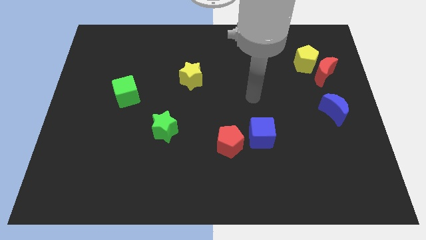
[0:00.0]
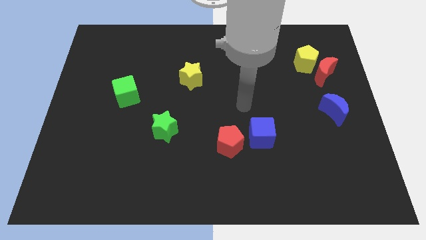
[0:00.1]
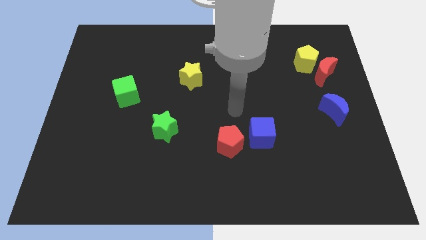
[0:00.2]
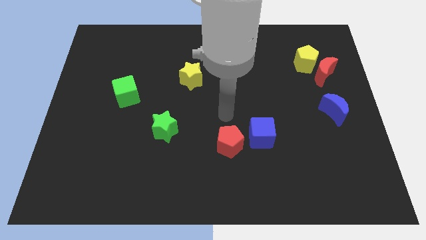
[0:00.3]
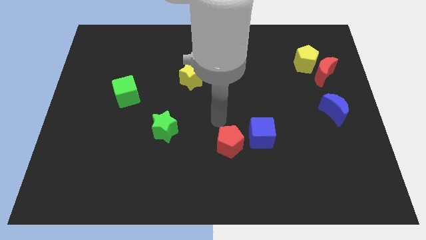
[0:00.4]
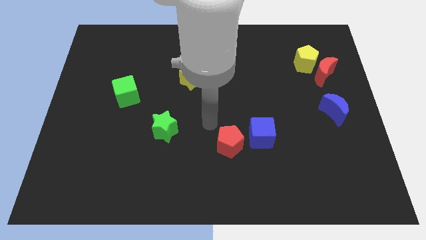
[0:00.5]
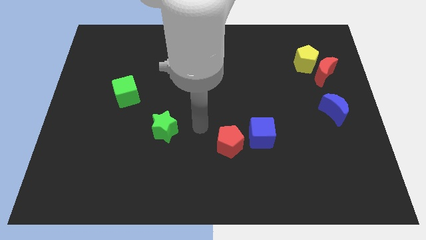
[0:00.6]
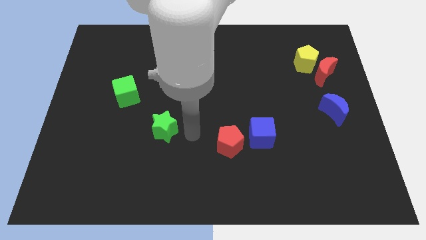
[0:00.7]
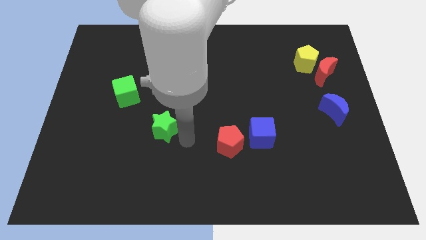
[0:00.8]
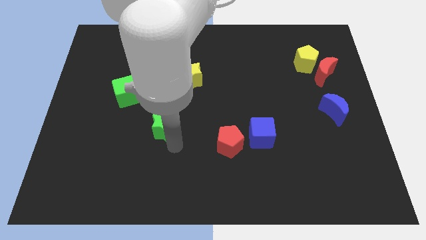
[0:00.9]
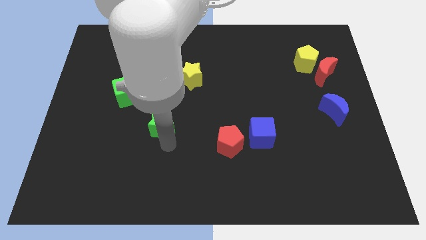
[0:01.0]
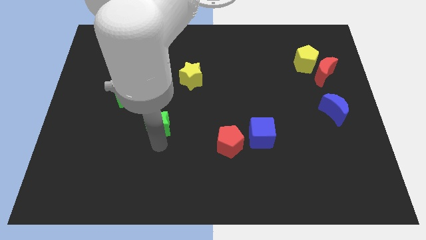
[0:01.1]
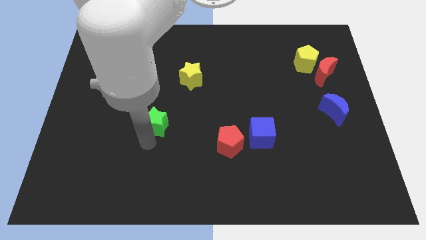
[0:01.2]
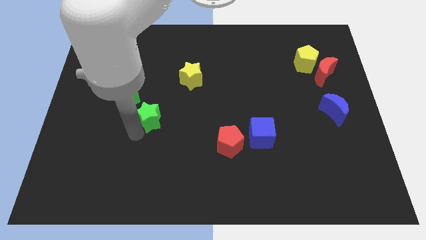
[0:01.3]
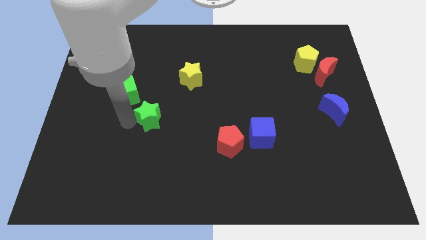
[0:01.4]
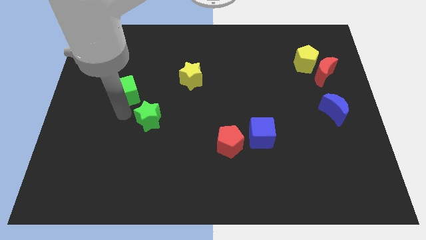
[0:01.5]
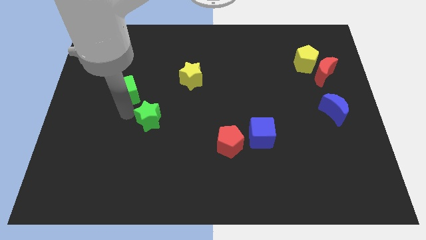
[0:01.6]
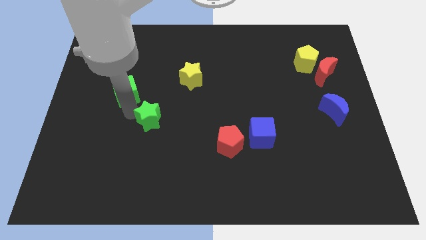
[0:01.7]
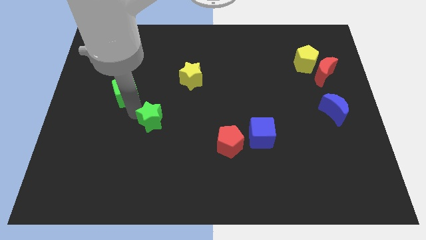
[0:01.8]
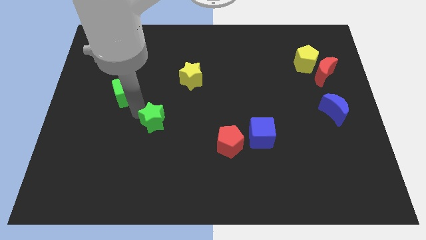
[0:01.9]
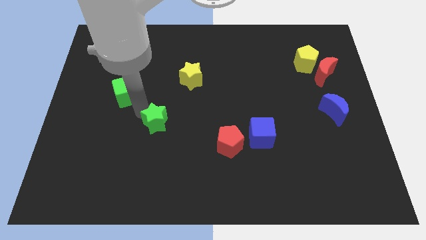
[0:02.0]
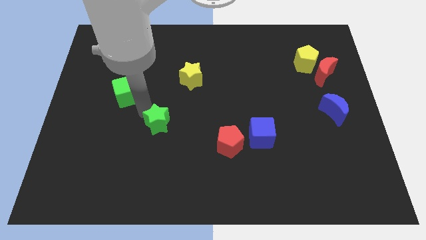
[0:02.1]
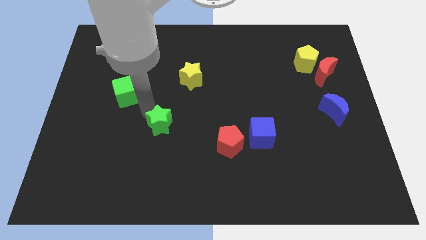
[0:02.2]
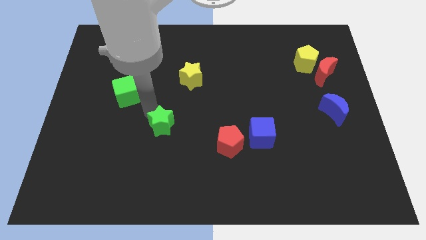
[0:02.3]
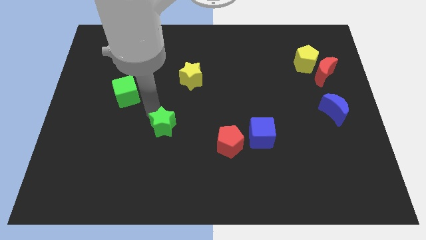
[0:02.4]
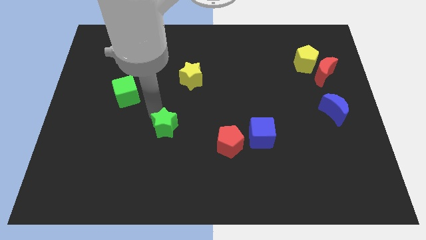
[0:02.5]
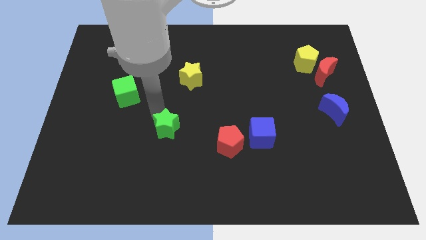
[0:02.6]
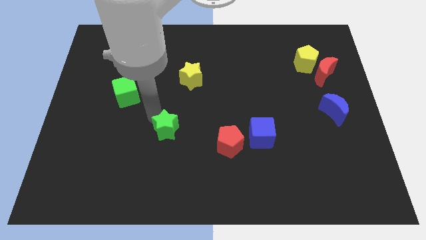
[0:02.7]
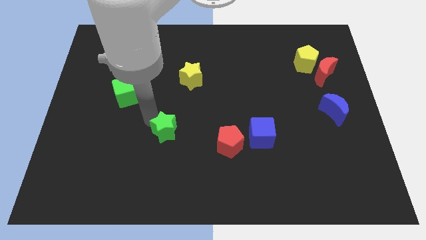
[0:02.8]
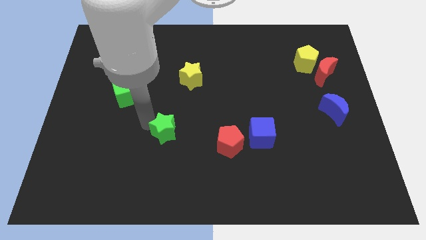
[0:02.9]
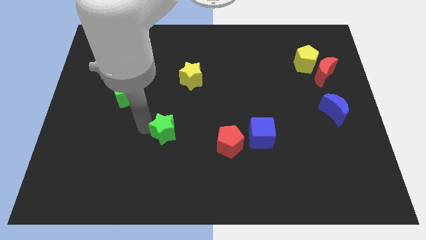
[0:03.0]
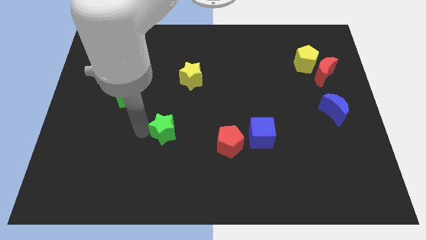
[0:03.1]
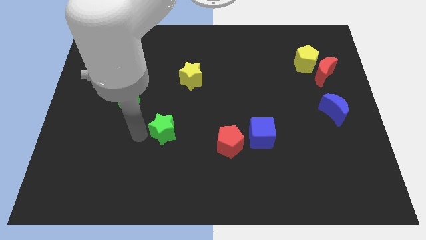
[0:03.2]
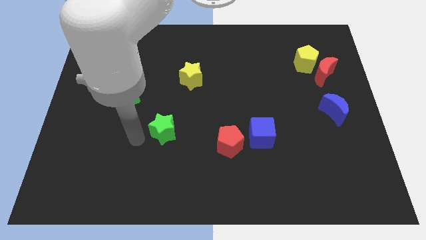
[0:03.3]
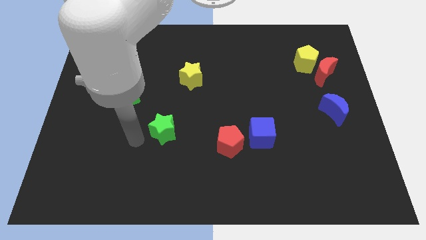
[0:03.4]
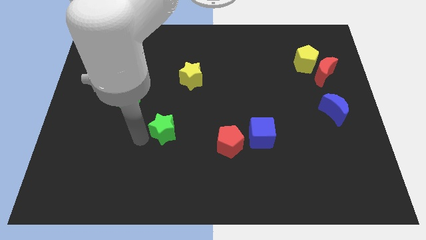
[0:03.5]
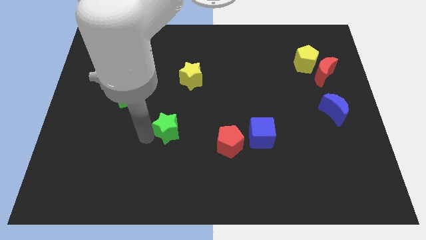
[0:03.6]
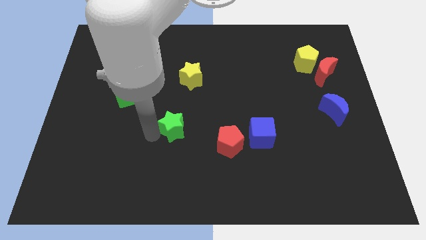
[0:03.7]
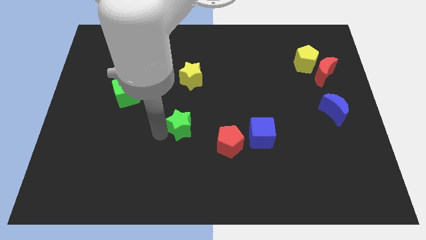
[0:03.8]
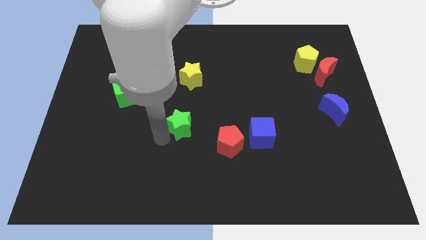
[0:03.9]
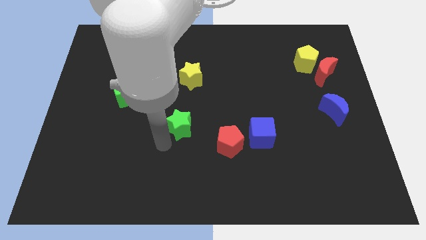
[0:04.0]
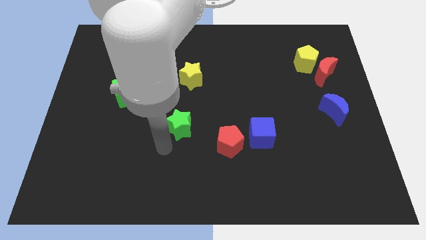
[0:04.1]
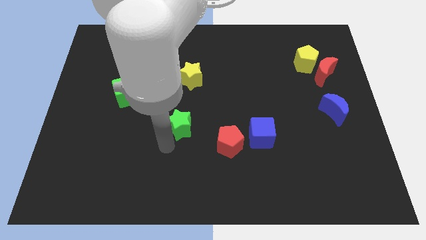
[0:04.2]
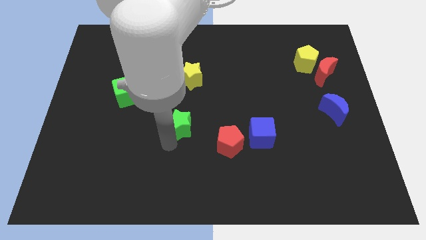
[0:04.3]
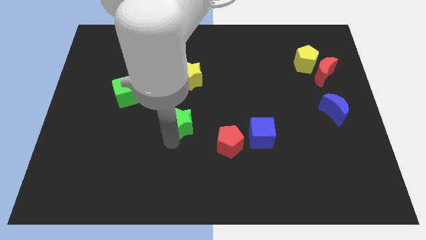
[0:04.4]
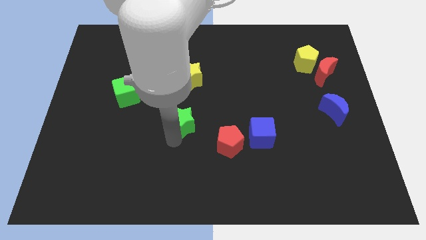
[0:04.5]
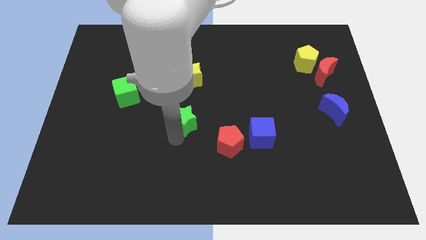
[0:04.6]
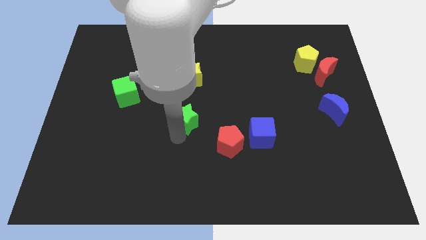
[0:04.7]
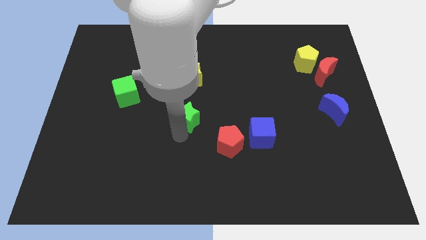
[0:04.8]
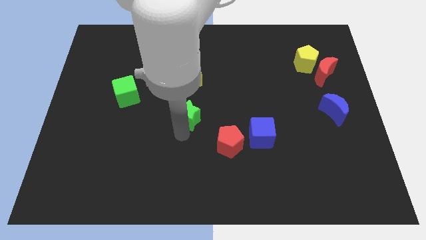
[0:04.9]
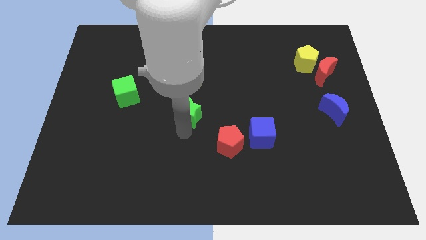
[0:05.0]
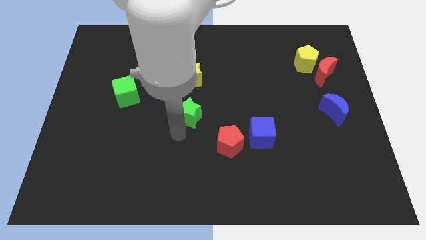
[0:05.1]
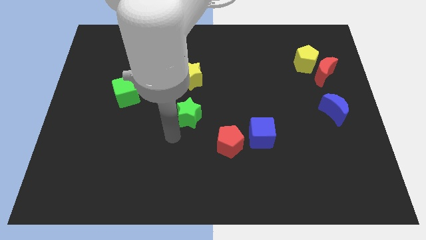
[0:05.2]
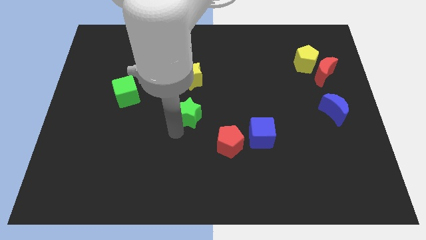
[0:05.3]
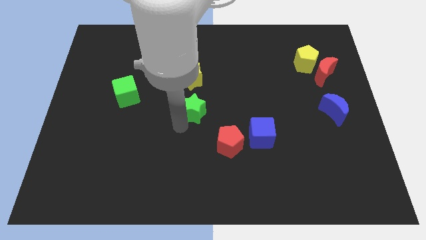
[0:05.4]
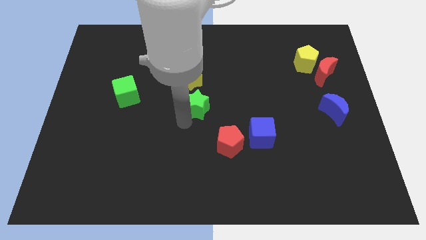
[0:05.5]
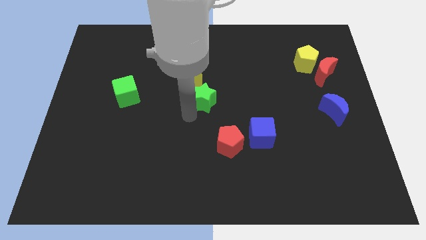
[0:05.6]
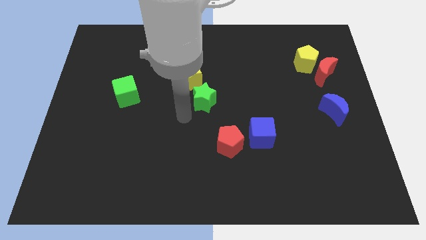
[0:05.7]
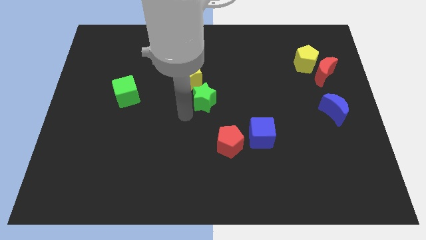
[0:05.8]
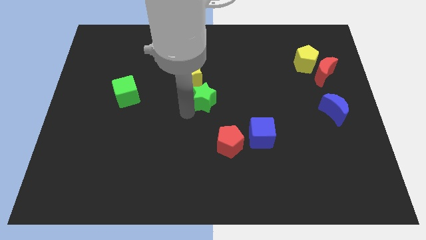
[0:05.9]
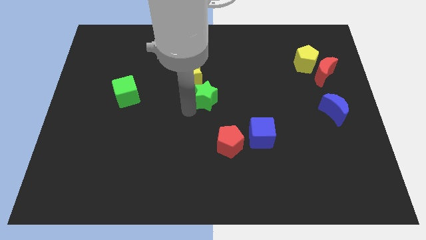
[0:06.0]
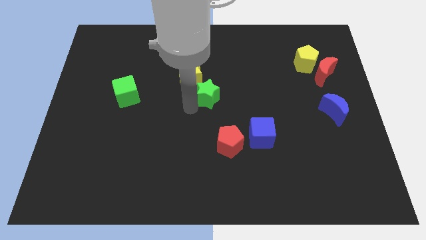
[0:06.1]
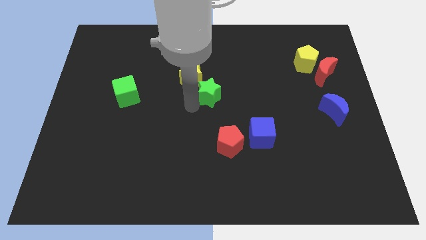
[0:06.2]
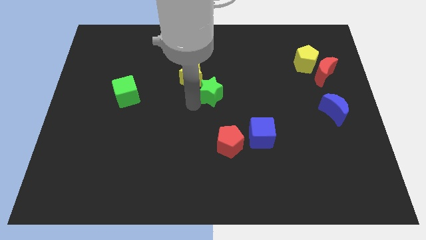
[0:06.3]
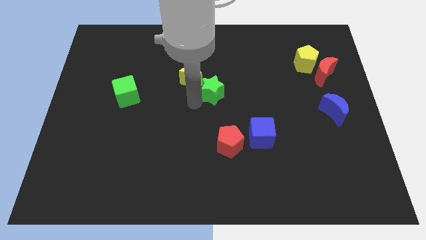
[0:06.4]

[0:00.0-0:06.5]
put the green star just right of the yellow star

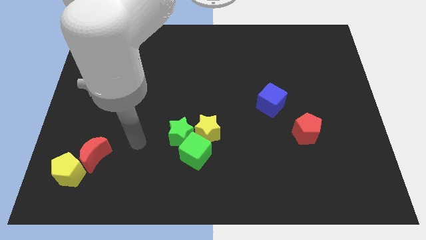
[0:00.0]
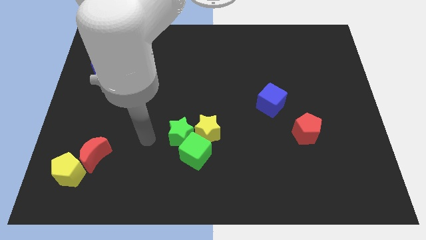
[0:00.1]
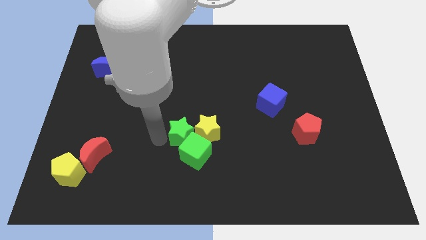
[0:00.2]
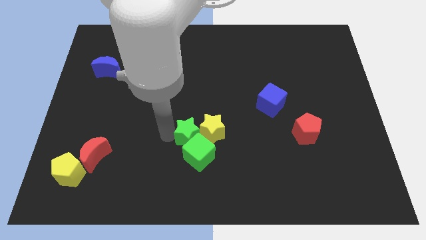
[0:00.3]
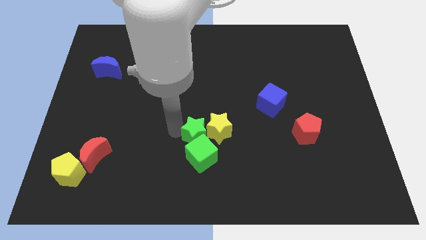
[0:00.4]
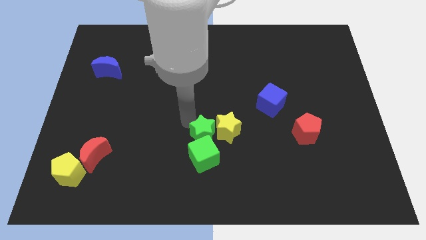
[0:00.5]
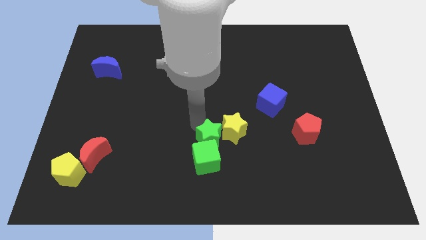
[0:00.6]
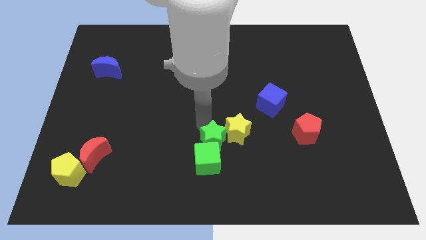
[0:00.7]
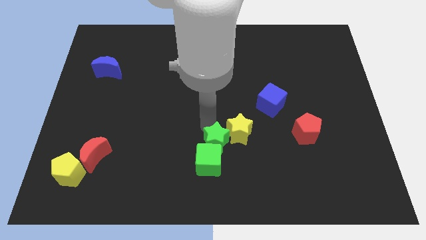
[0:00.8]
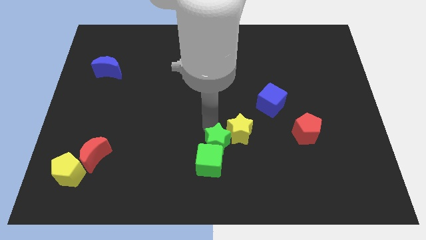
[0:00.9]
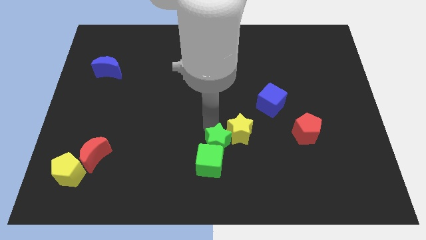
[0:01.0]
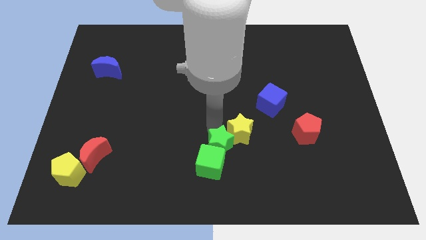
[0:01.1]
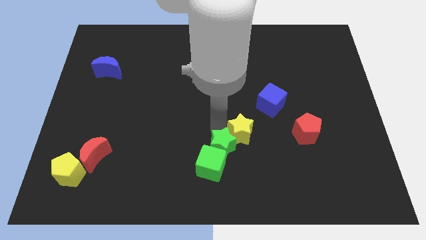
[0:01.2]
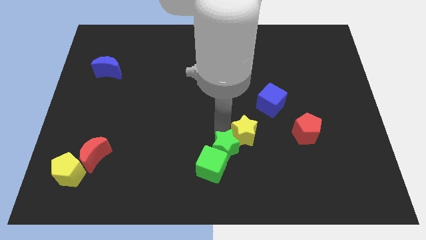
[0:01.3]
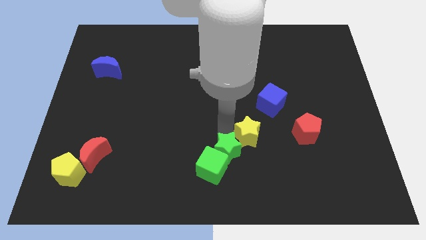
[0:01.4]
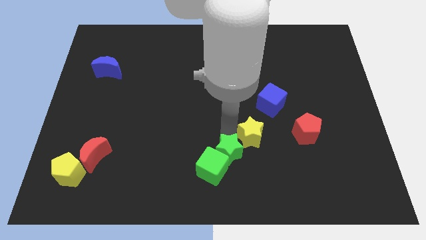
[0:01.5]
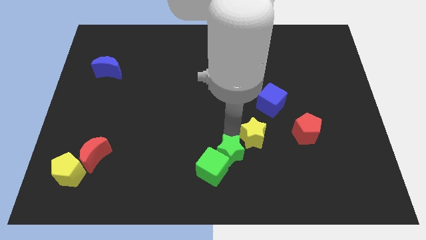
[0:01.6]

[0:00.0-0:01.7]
push the yellow star to the bottom side of the blue cube
